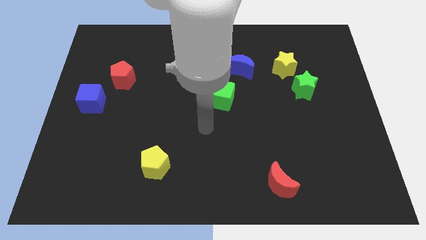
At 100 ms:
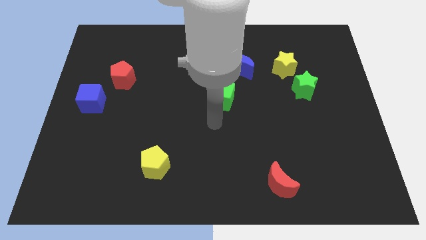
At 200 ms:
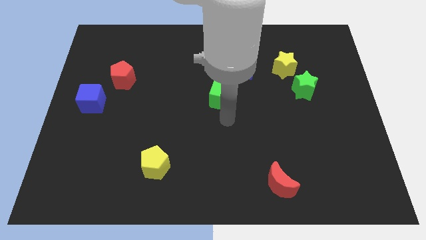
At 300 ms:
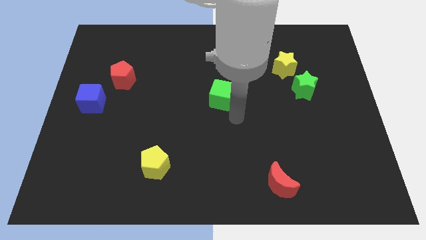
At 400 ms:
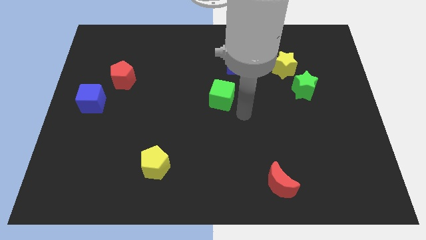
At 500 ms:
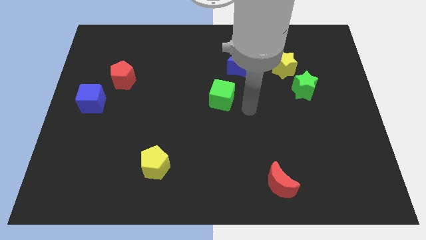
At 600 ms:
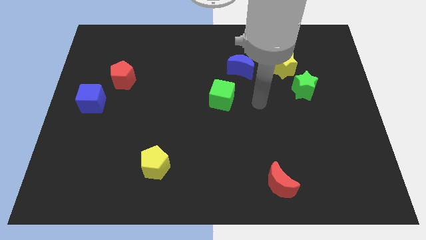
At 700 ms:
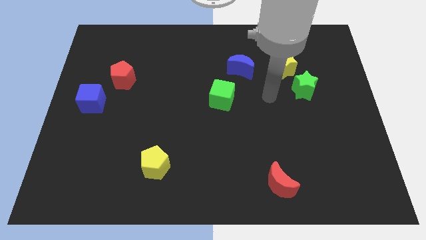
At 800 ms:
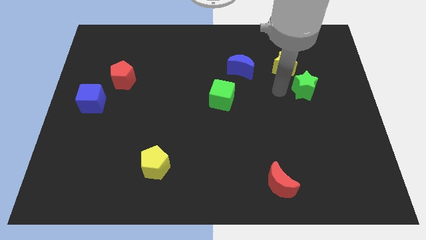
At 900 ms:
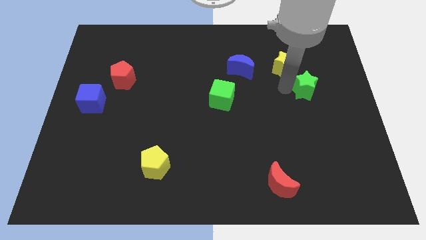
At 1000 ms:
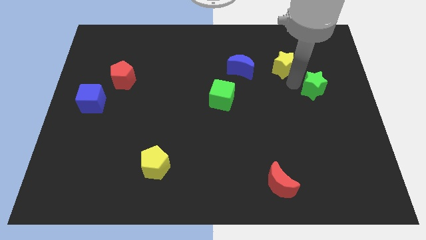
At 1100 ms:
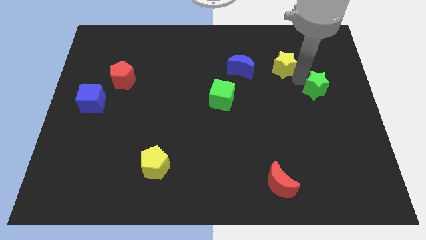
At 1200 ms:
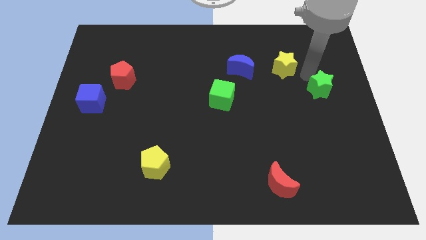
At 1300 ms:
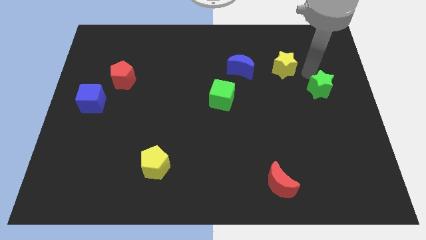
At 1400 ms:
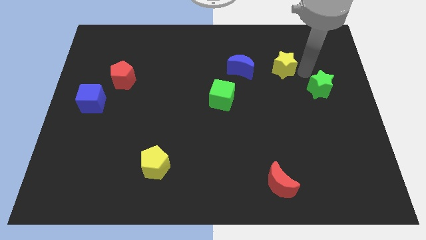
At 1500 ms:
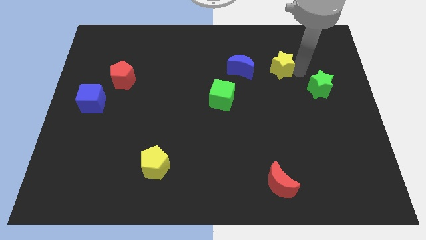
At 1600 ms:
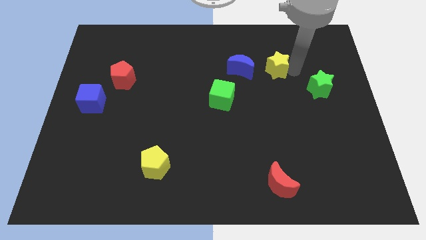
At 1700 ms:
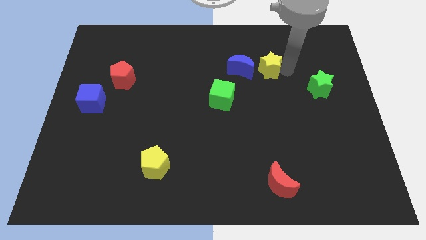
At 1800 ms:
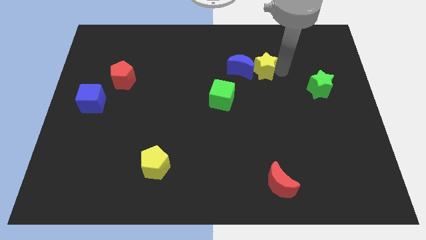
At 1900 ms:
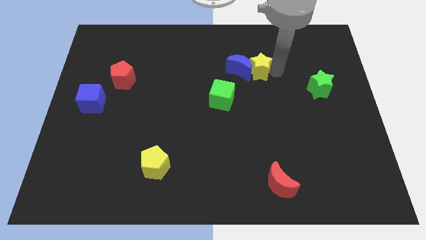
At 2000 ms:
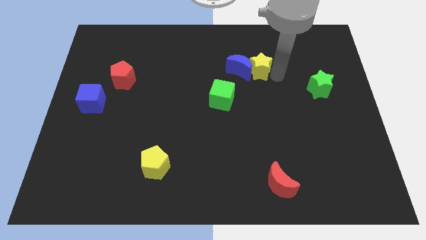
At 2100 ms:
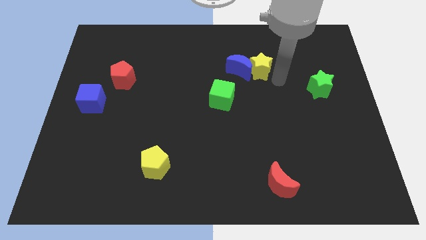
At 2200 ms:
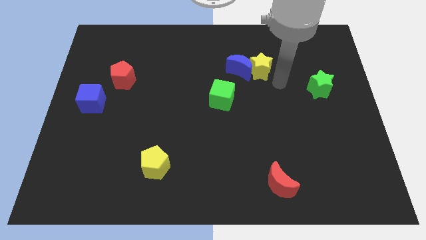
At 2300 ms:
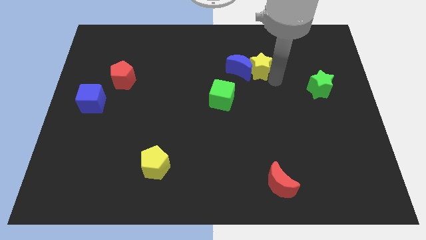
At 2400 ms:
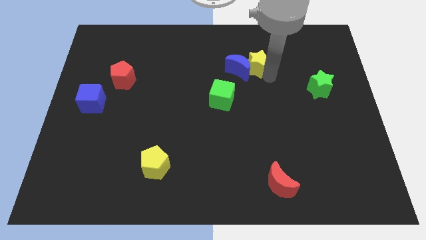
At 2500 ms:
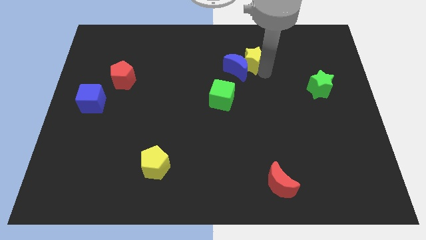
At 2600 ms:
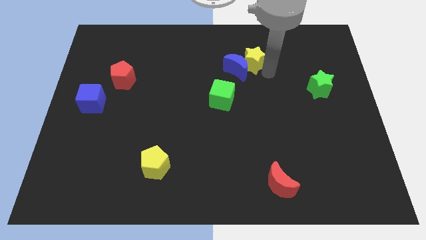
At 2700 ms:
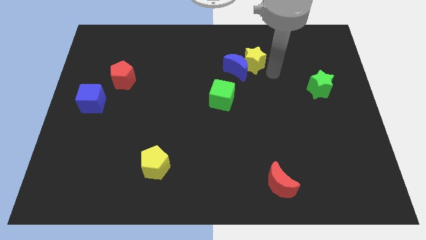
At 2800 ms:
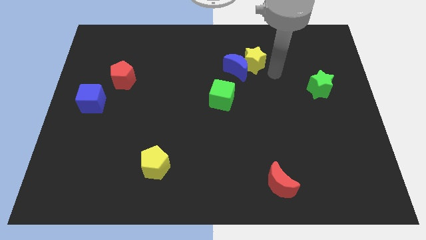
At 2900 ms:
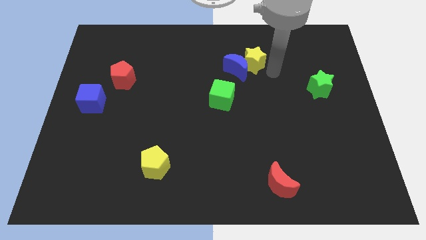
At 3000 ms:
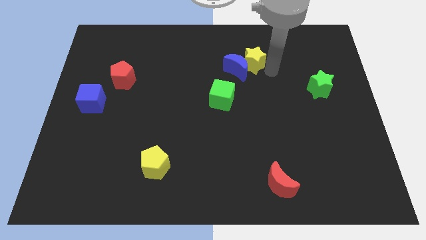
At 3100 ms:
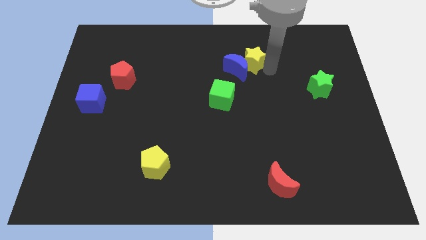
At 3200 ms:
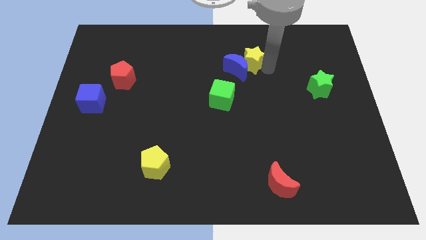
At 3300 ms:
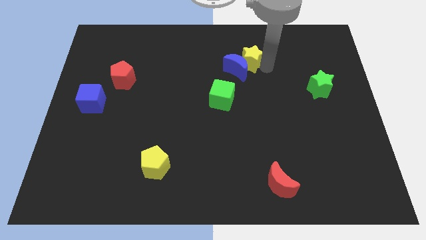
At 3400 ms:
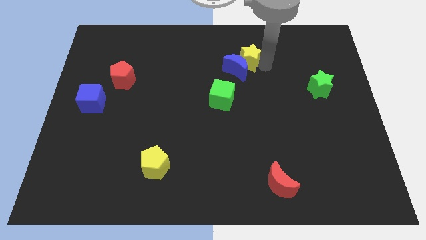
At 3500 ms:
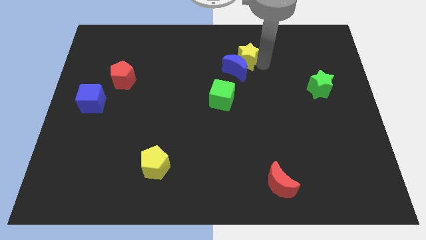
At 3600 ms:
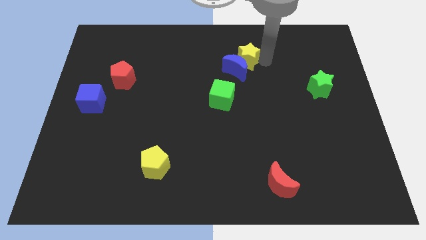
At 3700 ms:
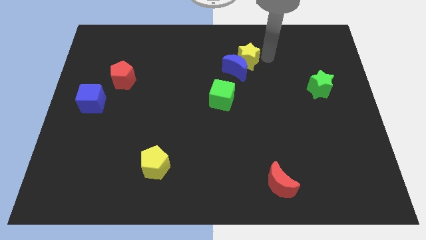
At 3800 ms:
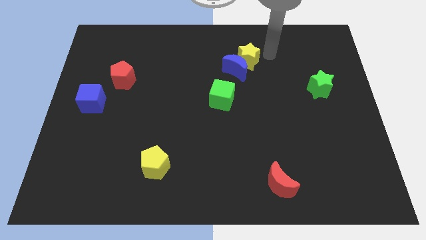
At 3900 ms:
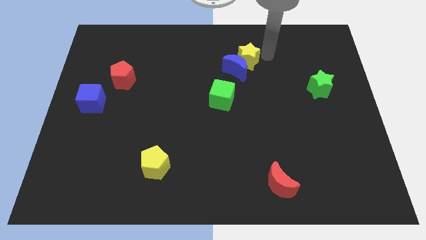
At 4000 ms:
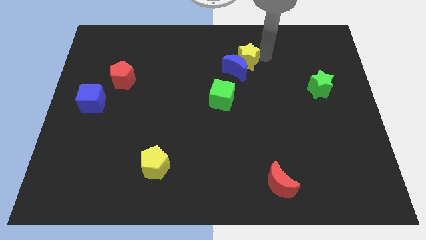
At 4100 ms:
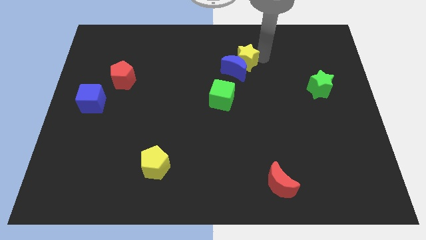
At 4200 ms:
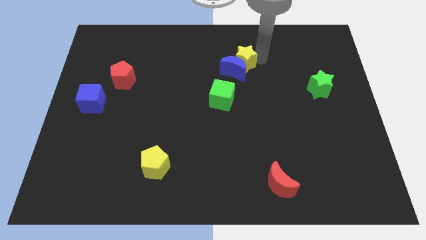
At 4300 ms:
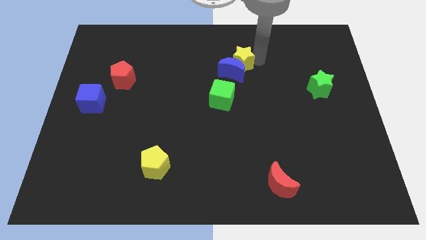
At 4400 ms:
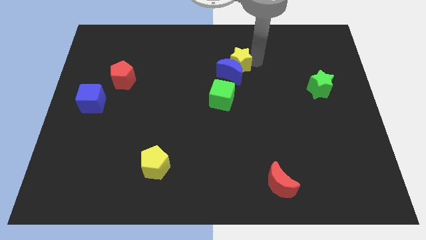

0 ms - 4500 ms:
push the yellow star to the top side of the green cube

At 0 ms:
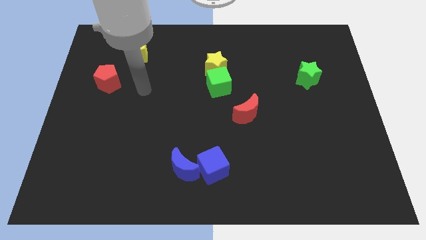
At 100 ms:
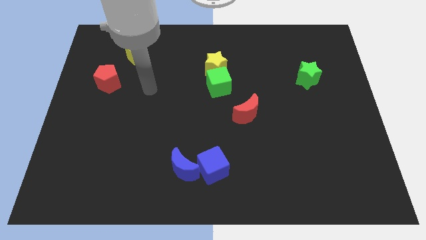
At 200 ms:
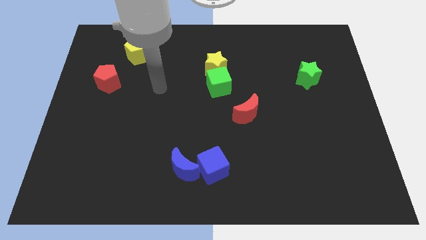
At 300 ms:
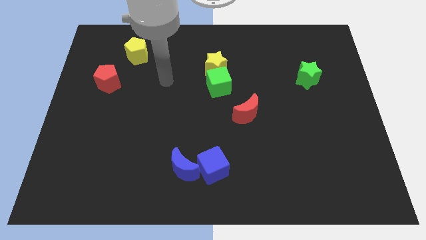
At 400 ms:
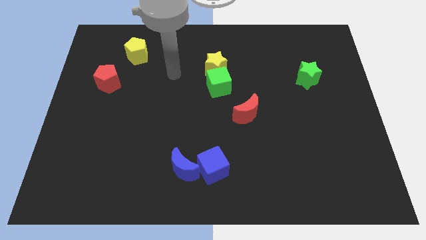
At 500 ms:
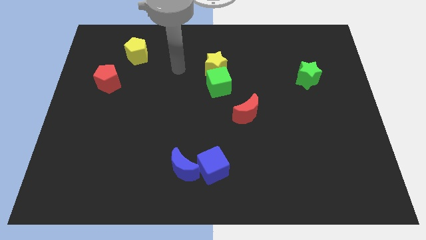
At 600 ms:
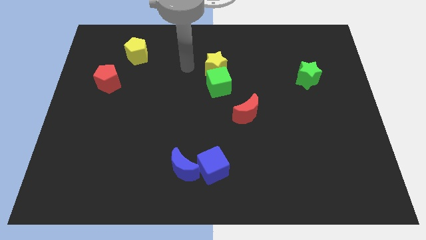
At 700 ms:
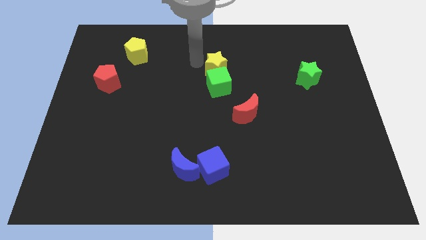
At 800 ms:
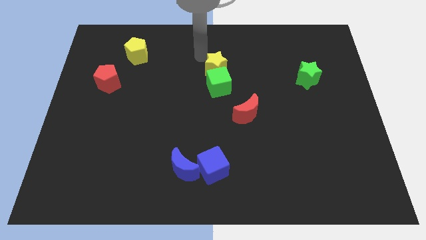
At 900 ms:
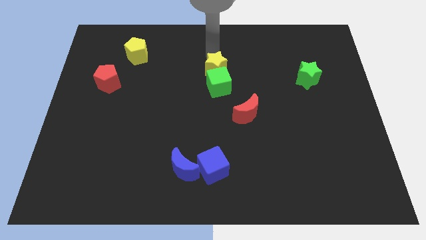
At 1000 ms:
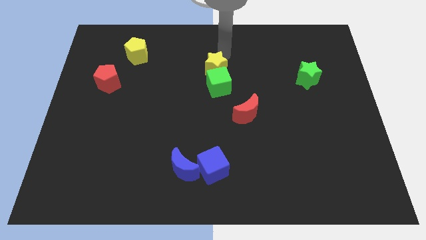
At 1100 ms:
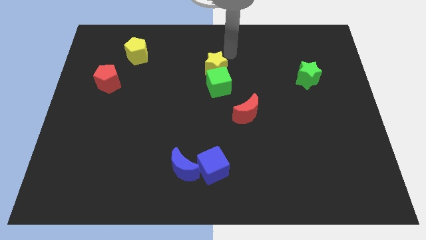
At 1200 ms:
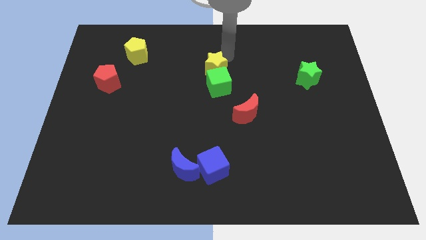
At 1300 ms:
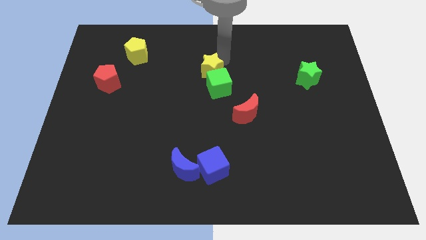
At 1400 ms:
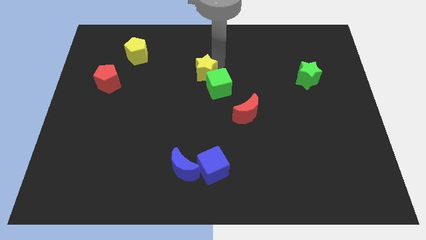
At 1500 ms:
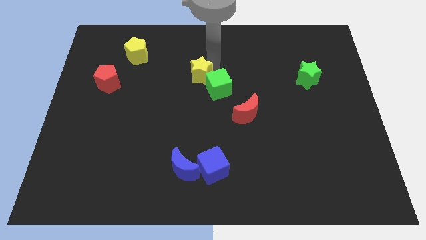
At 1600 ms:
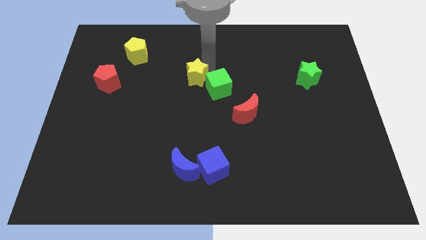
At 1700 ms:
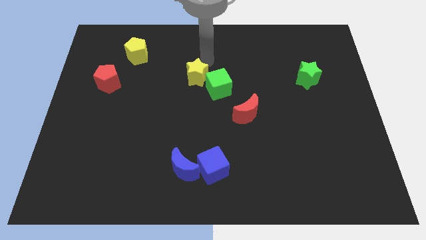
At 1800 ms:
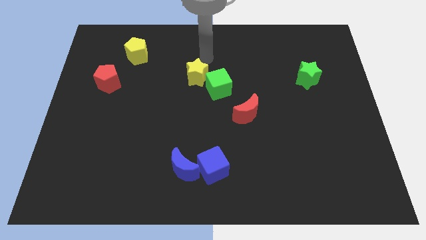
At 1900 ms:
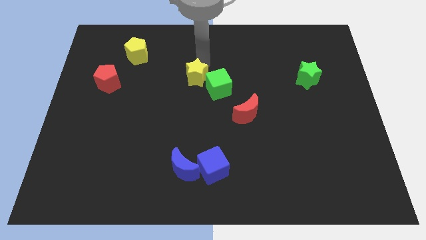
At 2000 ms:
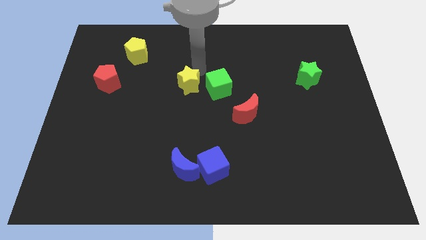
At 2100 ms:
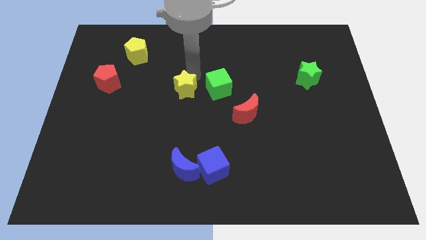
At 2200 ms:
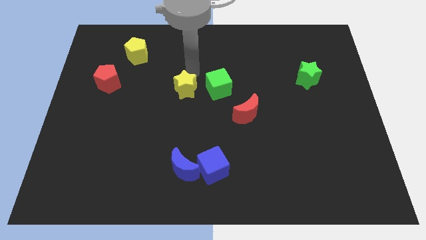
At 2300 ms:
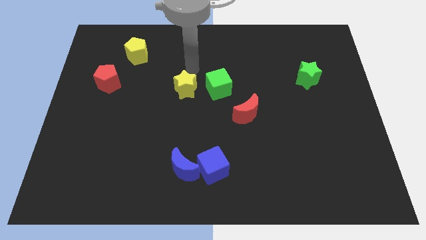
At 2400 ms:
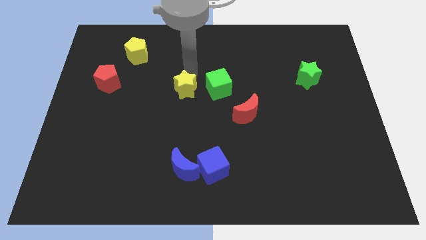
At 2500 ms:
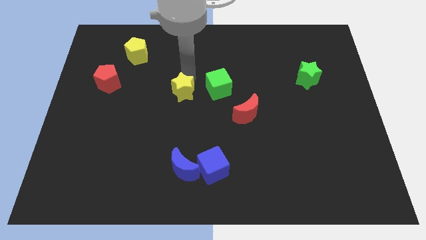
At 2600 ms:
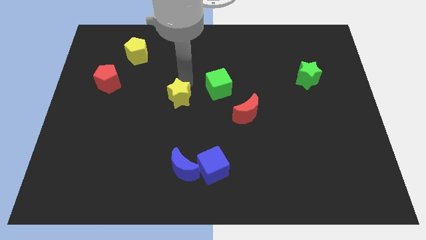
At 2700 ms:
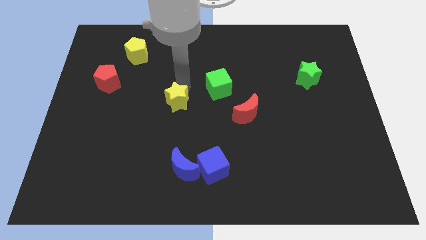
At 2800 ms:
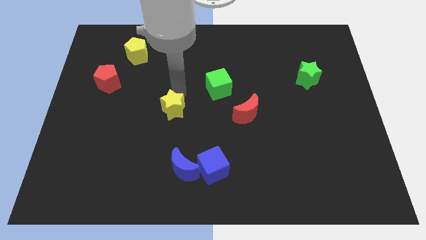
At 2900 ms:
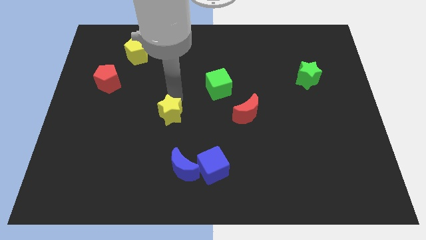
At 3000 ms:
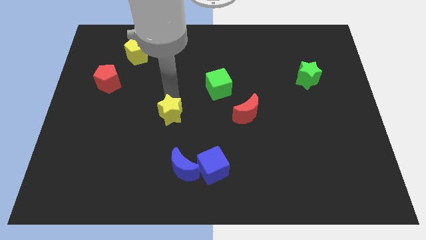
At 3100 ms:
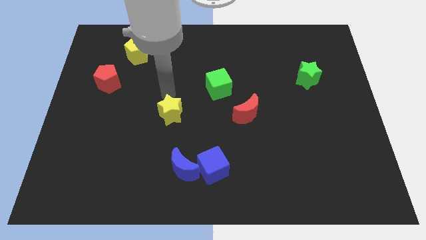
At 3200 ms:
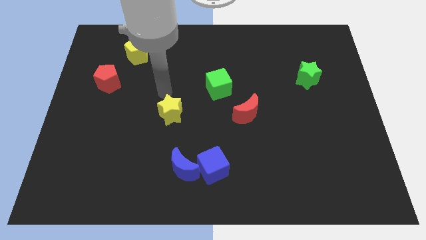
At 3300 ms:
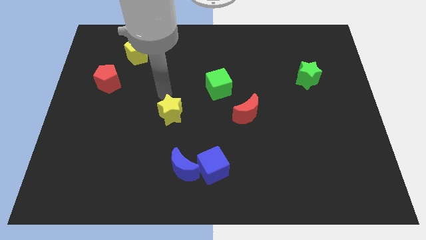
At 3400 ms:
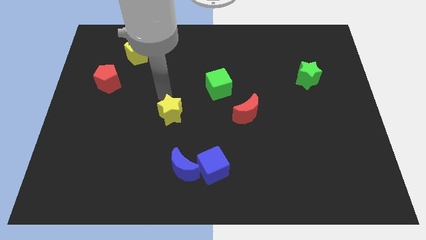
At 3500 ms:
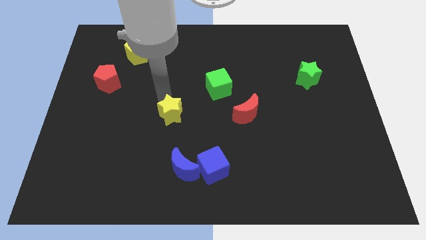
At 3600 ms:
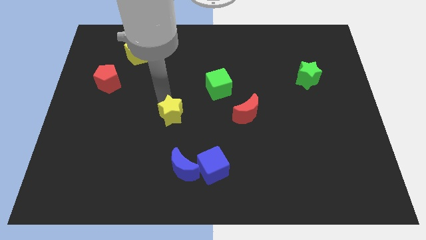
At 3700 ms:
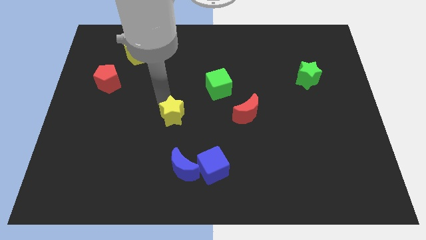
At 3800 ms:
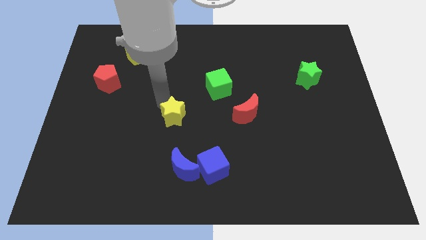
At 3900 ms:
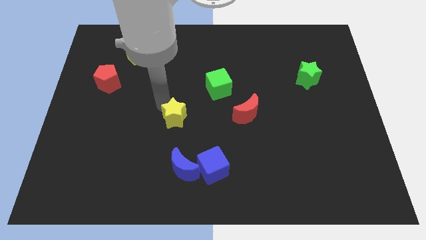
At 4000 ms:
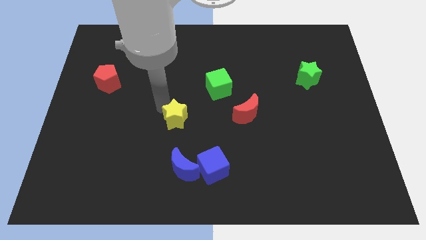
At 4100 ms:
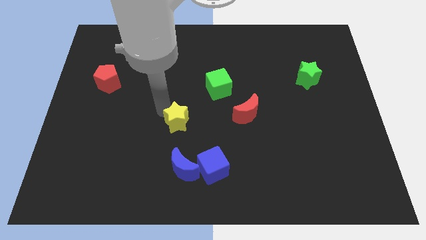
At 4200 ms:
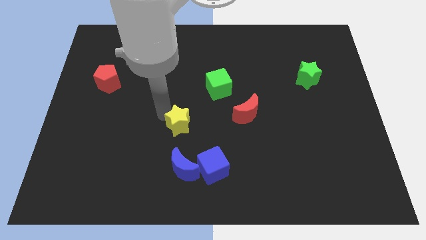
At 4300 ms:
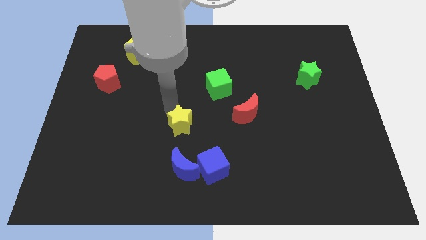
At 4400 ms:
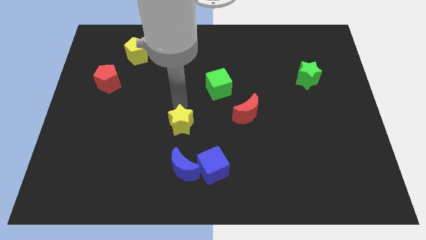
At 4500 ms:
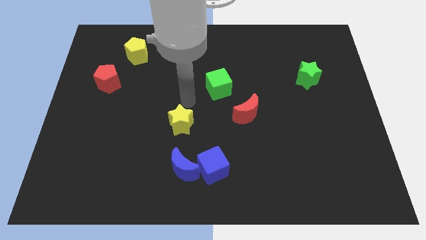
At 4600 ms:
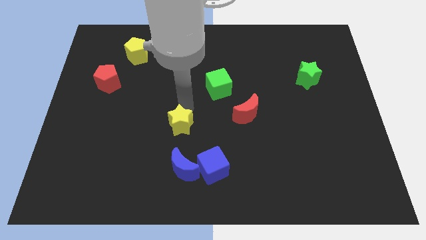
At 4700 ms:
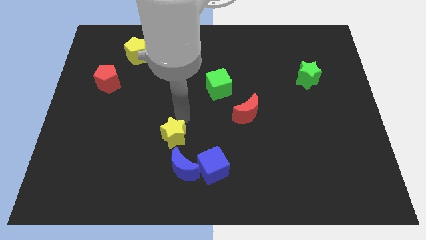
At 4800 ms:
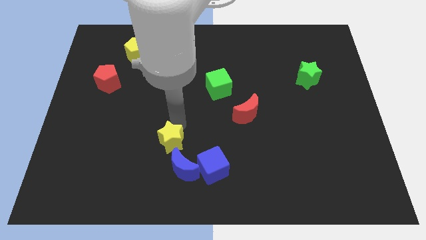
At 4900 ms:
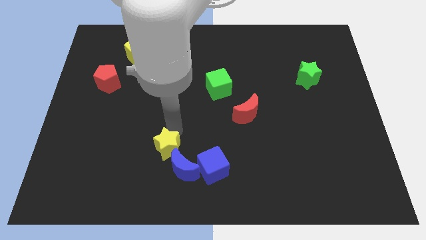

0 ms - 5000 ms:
push the yellow star left of the blue cube
